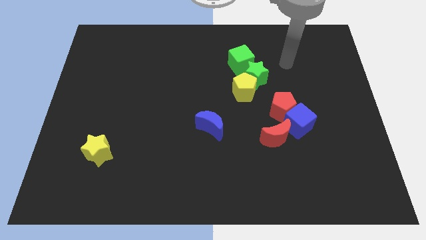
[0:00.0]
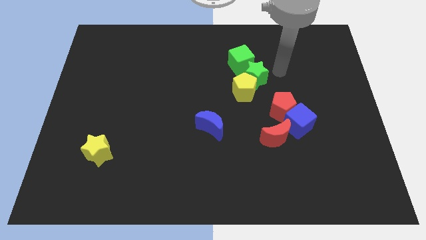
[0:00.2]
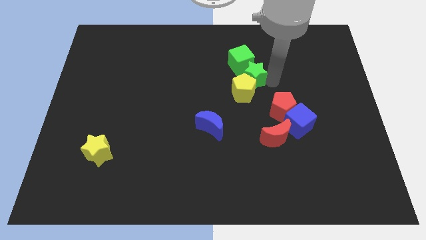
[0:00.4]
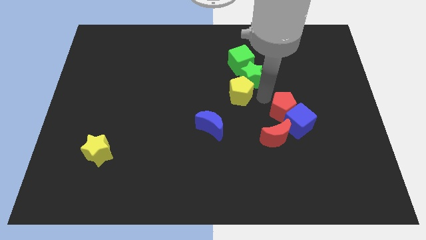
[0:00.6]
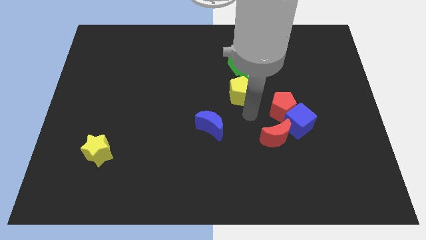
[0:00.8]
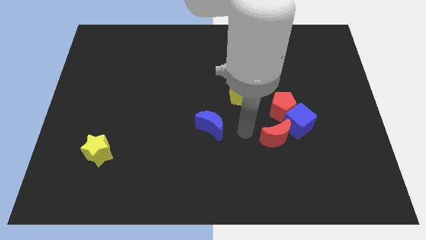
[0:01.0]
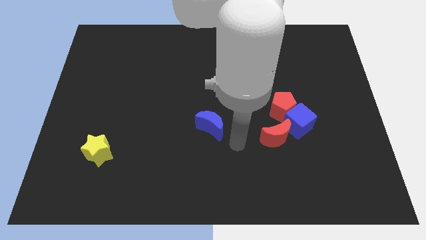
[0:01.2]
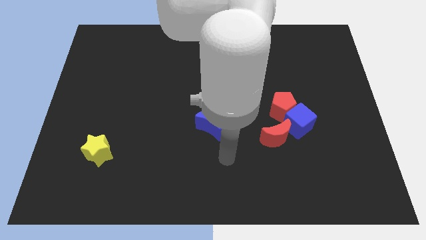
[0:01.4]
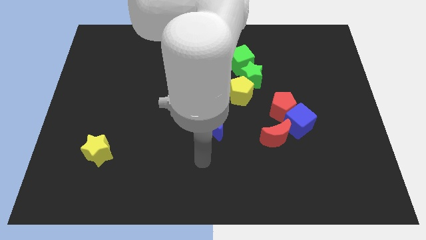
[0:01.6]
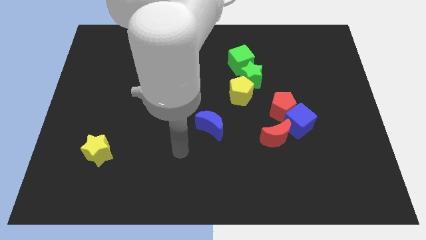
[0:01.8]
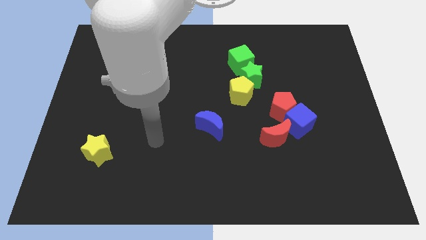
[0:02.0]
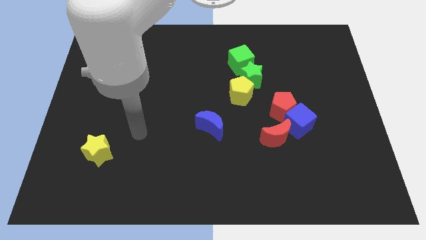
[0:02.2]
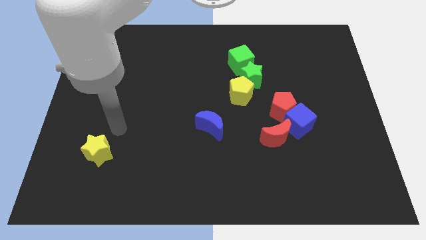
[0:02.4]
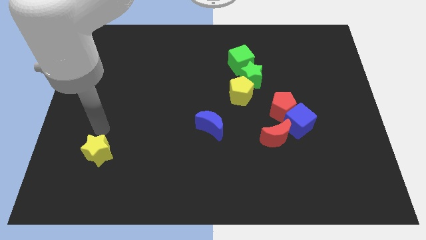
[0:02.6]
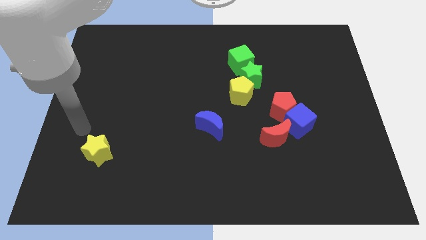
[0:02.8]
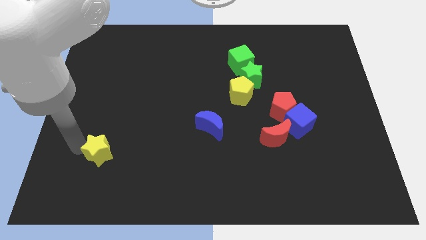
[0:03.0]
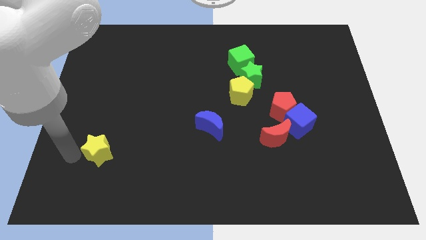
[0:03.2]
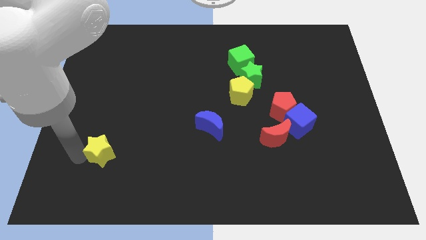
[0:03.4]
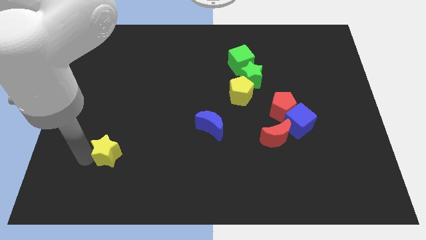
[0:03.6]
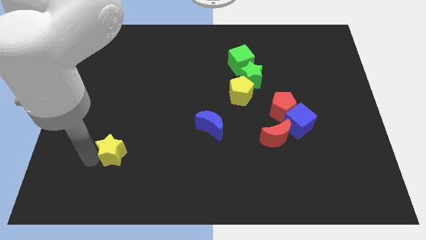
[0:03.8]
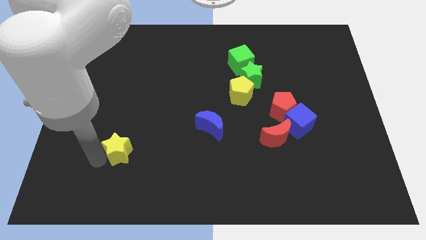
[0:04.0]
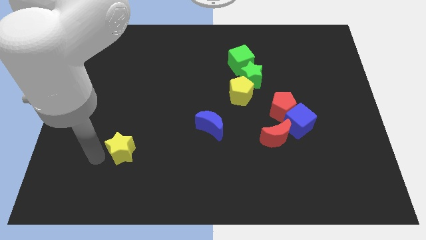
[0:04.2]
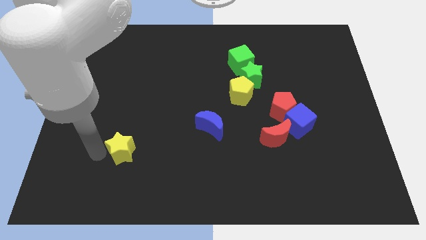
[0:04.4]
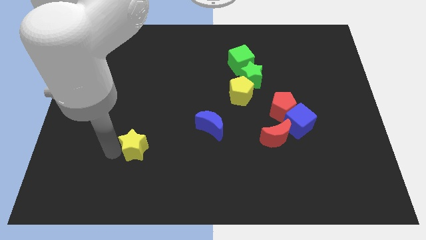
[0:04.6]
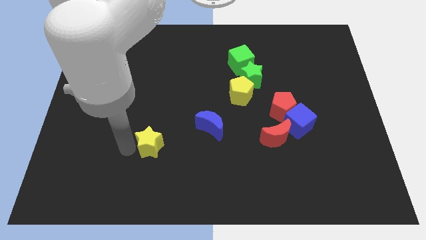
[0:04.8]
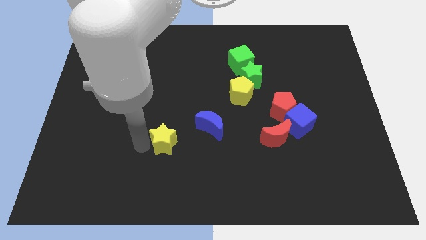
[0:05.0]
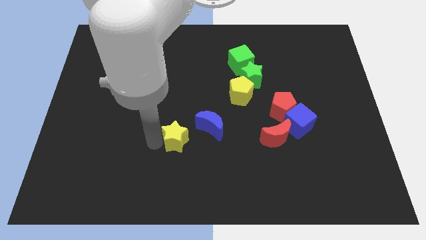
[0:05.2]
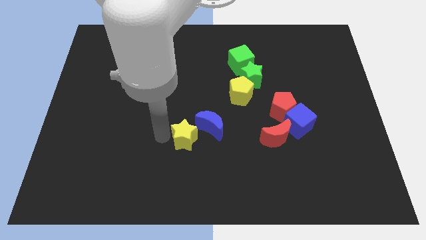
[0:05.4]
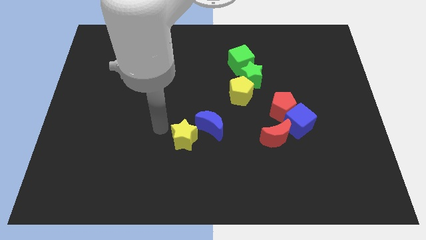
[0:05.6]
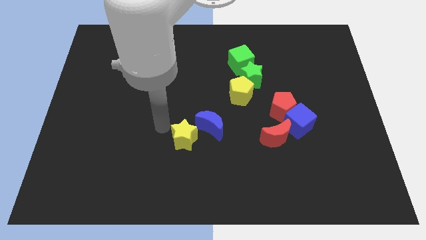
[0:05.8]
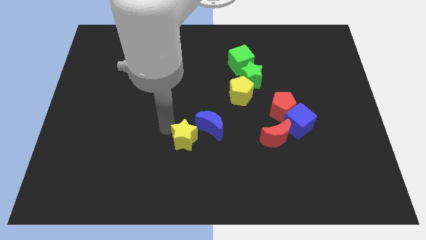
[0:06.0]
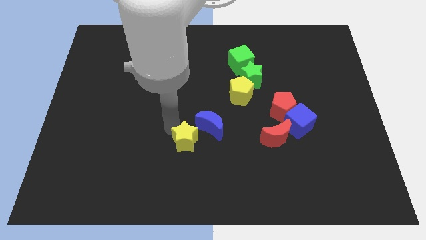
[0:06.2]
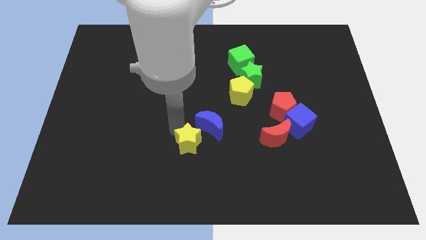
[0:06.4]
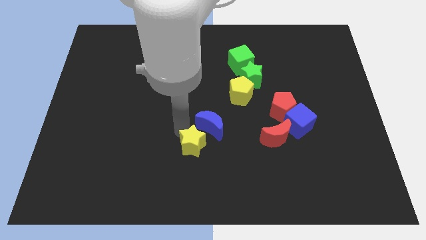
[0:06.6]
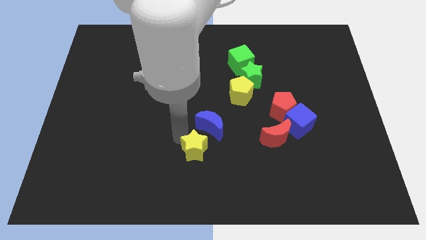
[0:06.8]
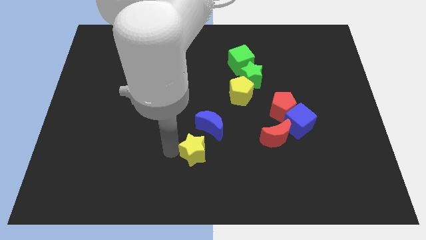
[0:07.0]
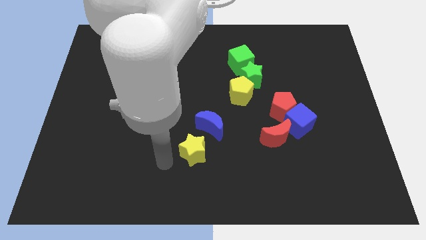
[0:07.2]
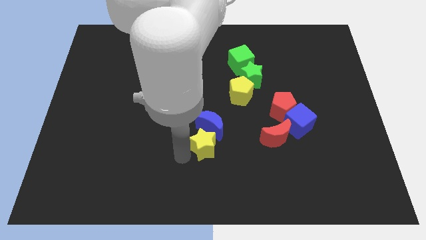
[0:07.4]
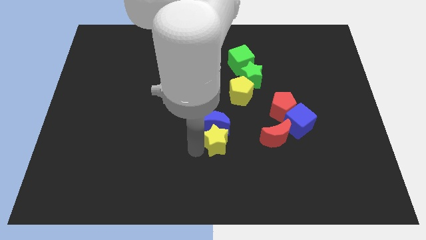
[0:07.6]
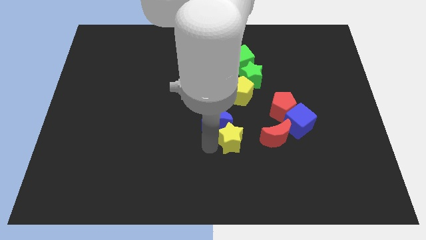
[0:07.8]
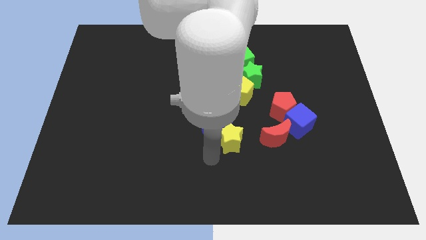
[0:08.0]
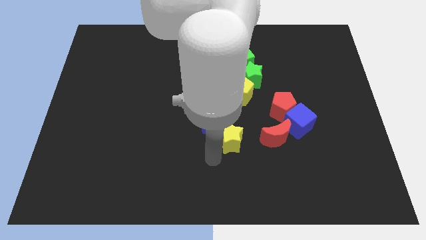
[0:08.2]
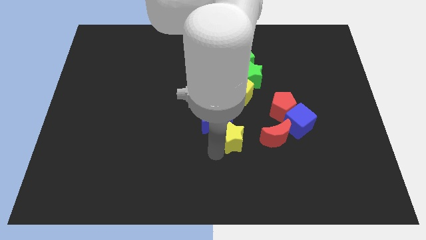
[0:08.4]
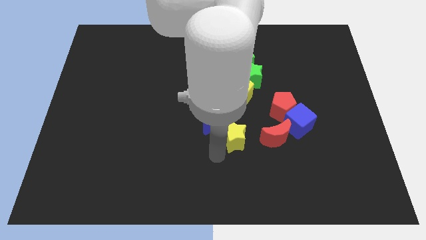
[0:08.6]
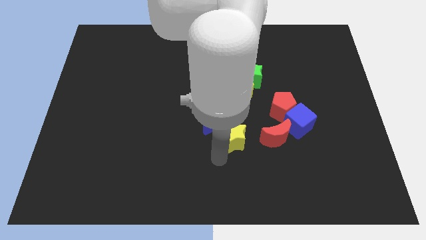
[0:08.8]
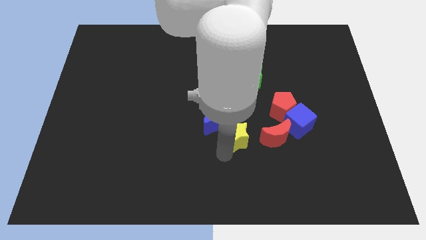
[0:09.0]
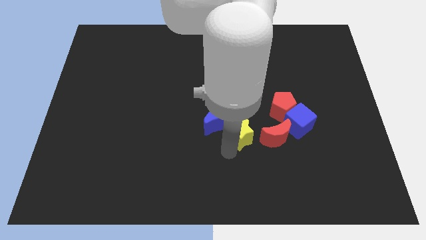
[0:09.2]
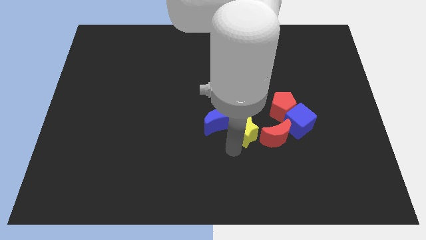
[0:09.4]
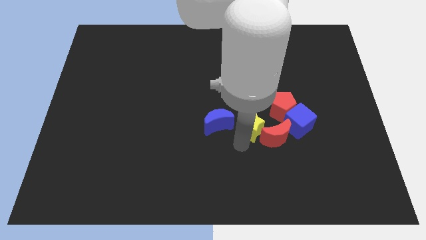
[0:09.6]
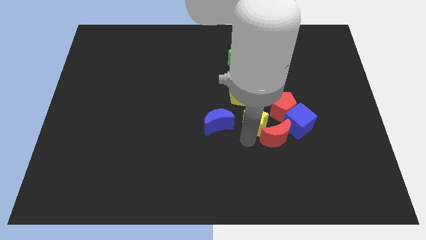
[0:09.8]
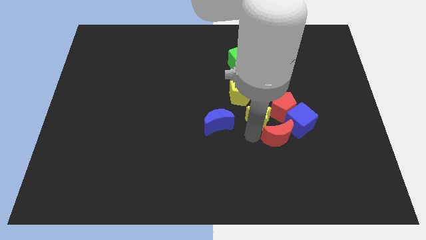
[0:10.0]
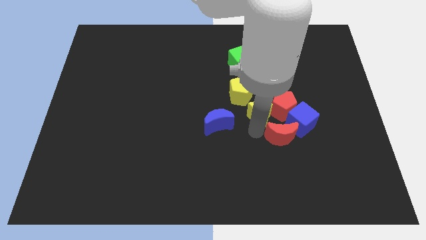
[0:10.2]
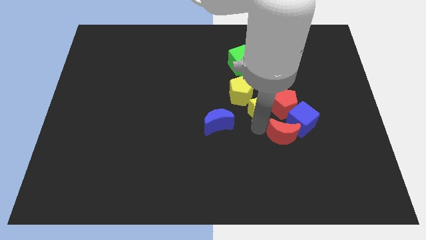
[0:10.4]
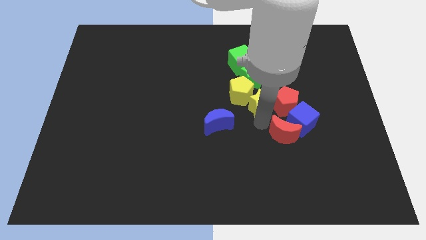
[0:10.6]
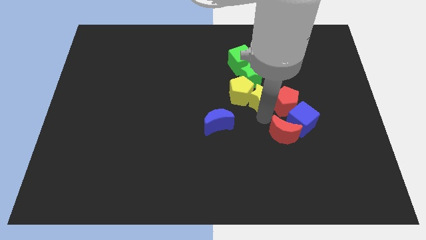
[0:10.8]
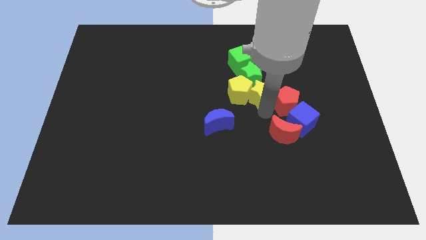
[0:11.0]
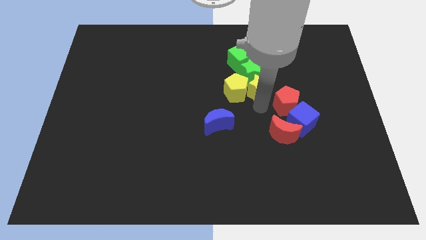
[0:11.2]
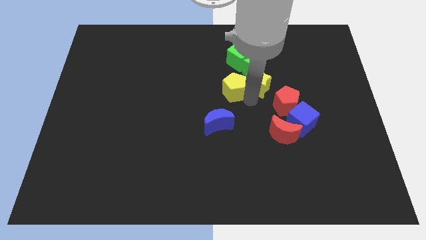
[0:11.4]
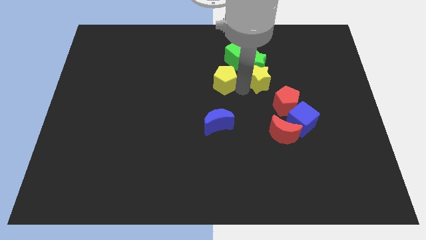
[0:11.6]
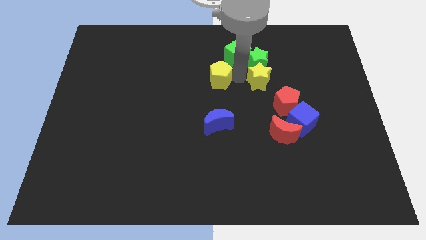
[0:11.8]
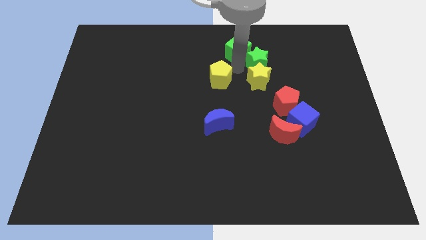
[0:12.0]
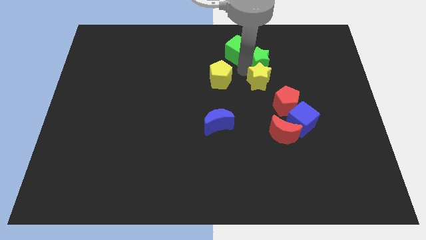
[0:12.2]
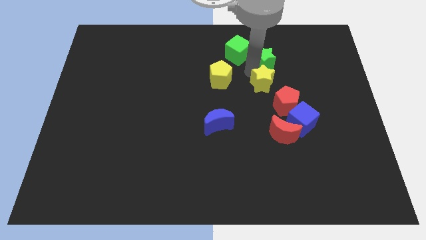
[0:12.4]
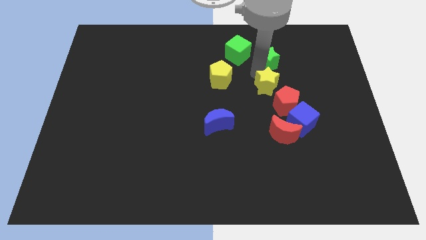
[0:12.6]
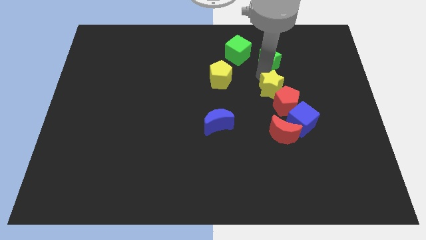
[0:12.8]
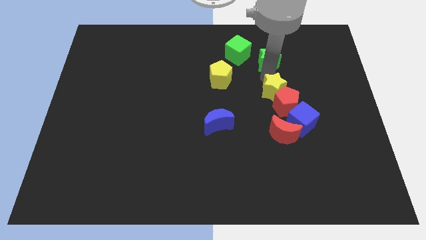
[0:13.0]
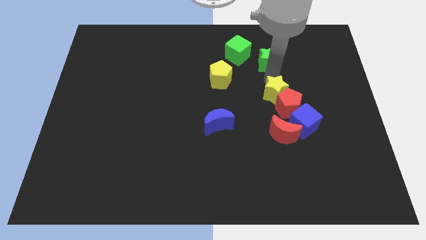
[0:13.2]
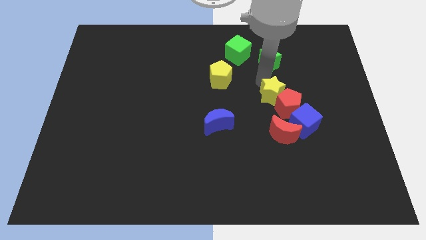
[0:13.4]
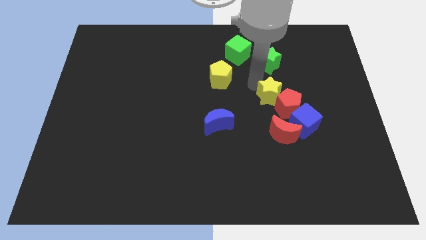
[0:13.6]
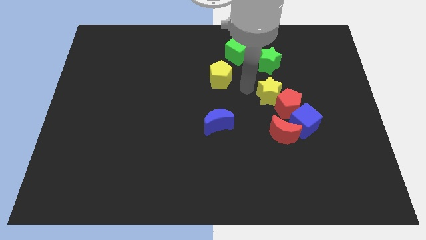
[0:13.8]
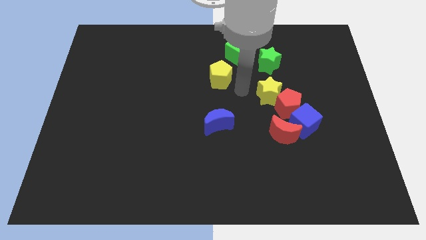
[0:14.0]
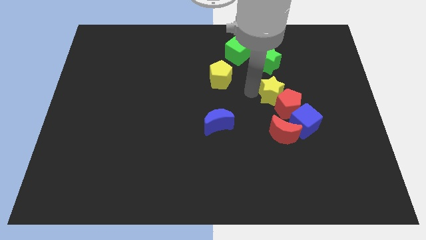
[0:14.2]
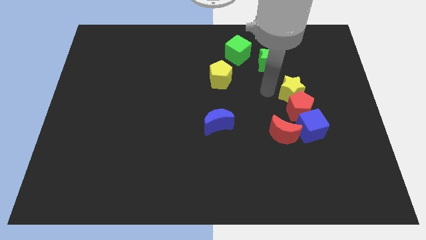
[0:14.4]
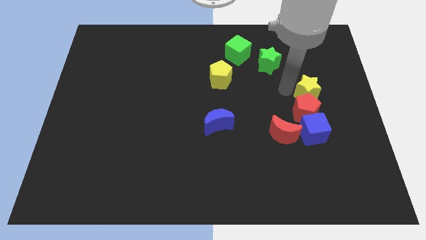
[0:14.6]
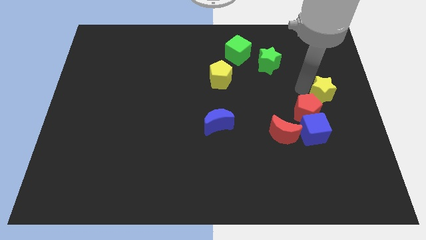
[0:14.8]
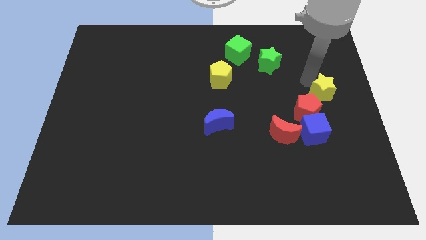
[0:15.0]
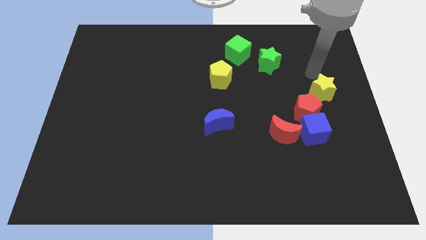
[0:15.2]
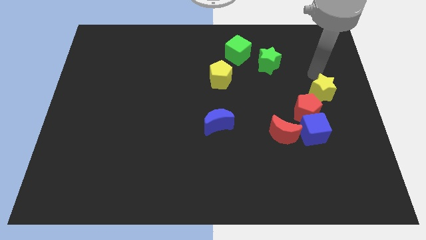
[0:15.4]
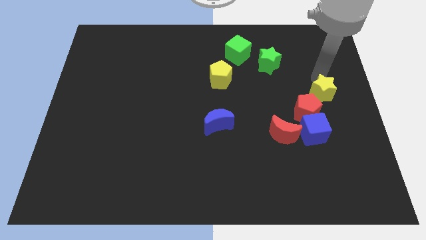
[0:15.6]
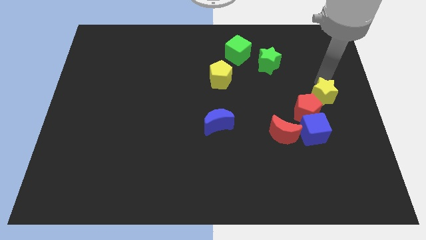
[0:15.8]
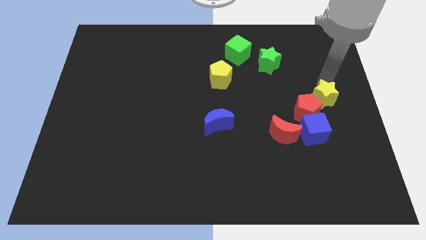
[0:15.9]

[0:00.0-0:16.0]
slide the yellow star diagonally up and to the right of the blue cube
